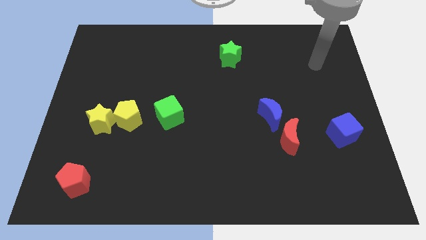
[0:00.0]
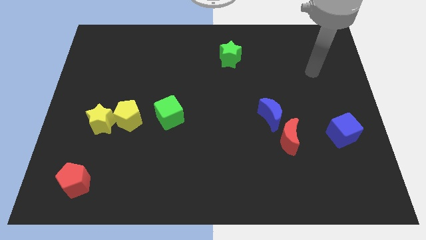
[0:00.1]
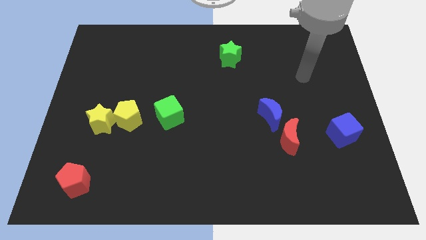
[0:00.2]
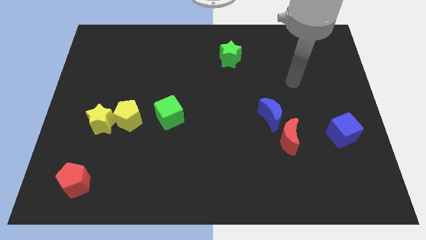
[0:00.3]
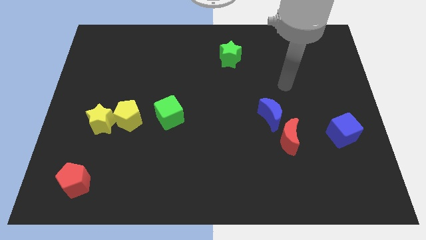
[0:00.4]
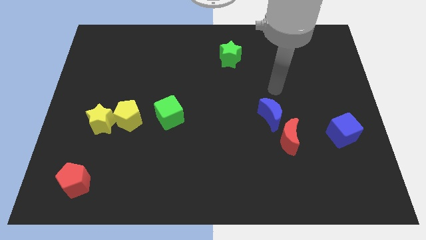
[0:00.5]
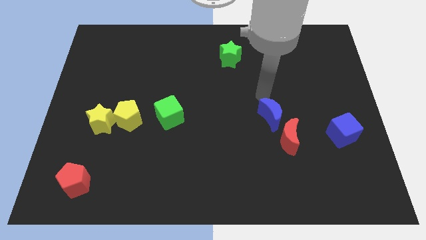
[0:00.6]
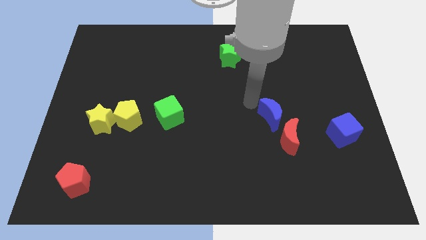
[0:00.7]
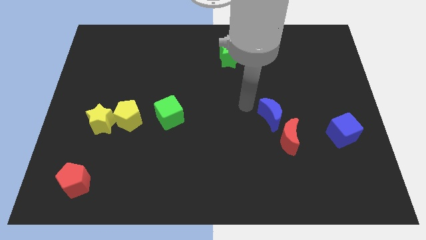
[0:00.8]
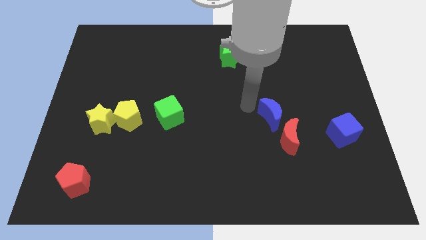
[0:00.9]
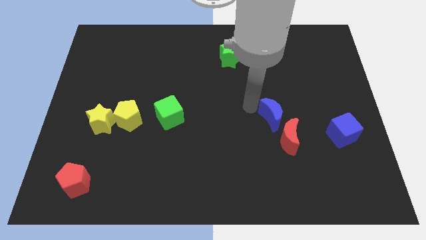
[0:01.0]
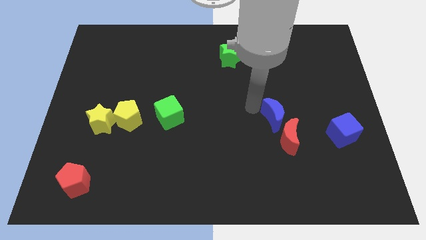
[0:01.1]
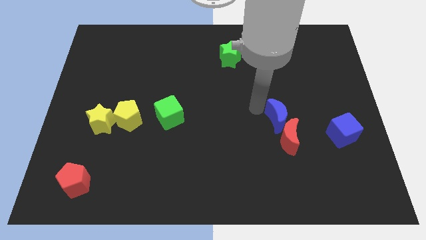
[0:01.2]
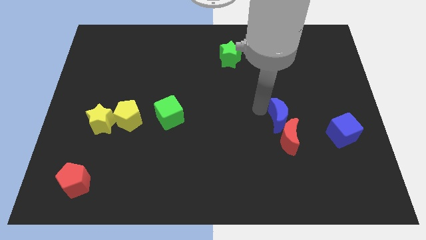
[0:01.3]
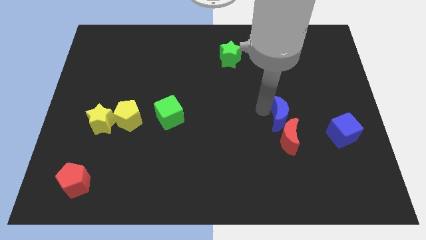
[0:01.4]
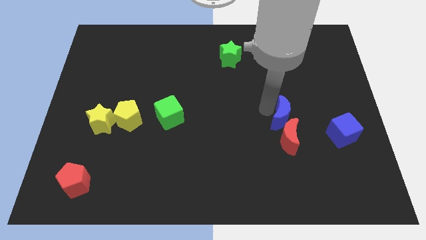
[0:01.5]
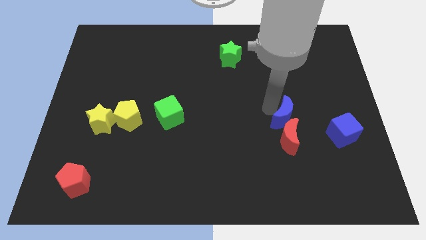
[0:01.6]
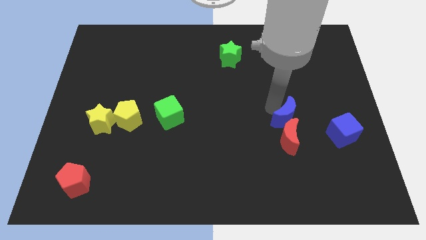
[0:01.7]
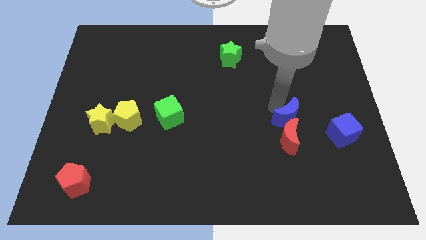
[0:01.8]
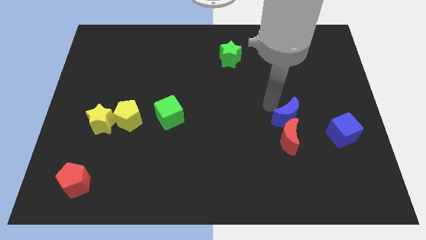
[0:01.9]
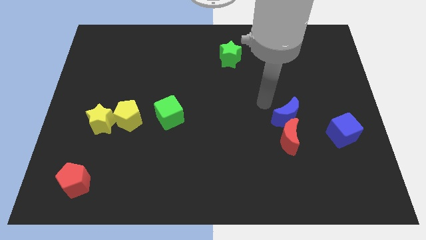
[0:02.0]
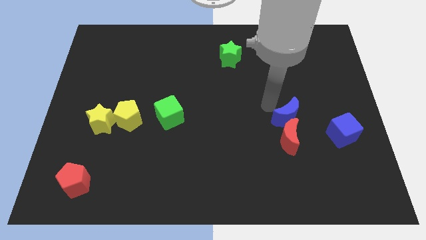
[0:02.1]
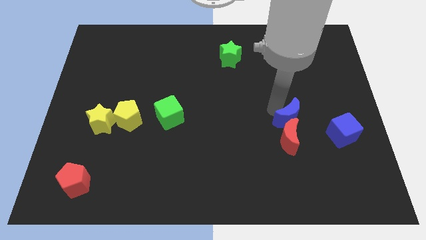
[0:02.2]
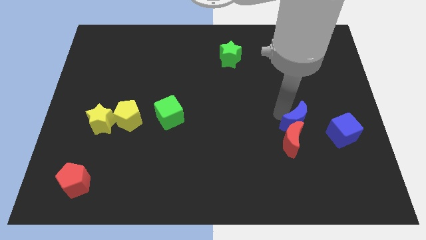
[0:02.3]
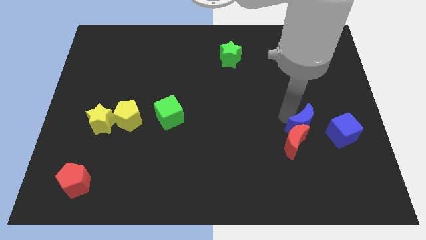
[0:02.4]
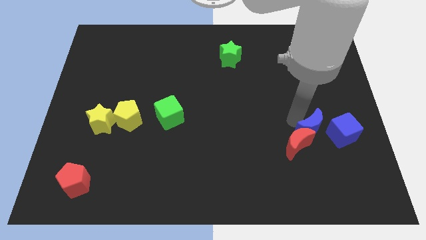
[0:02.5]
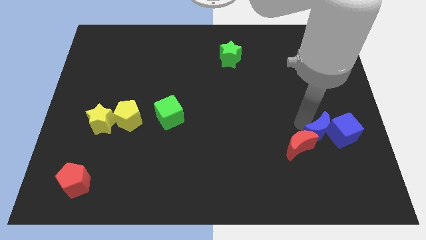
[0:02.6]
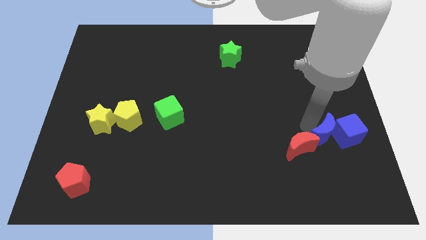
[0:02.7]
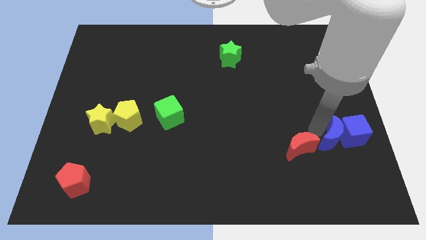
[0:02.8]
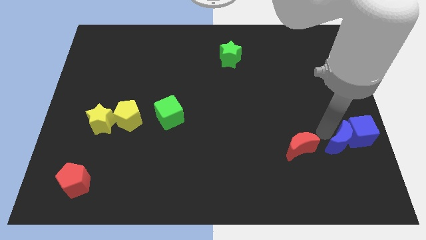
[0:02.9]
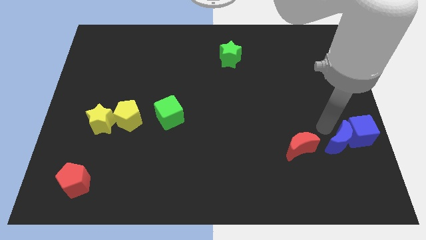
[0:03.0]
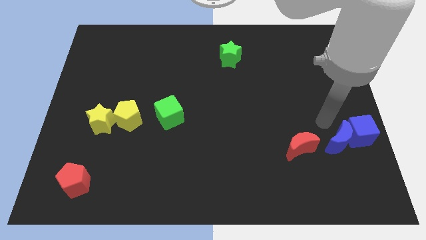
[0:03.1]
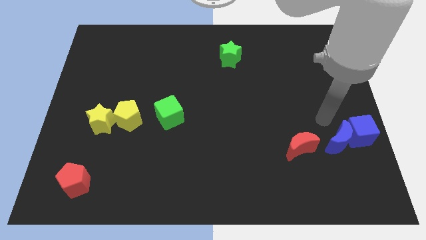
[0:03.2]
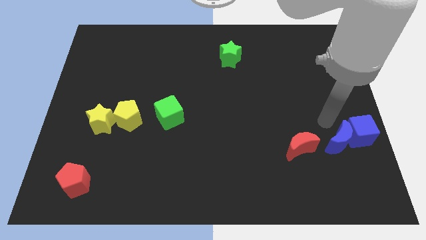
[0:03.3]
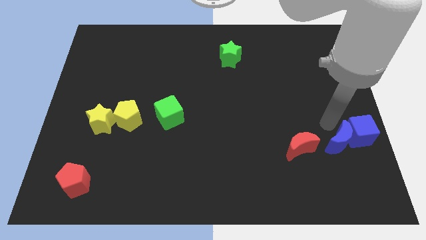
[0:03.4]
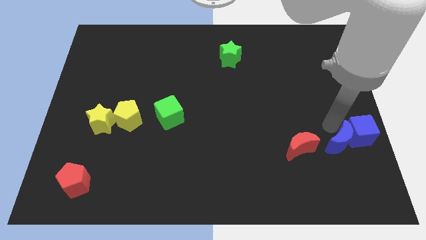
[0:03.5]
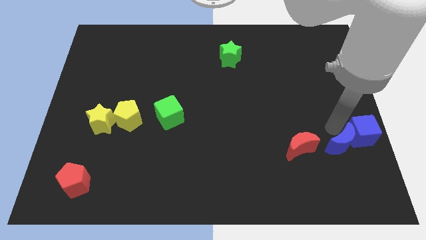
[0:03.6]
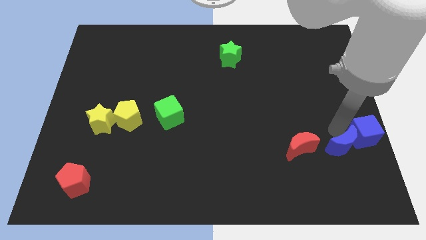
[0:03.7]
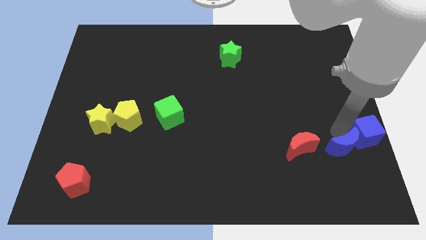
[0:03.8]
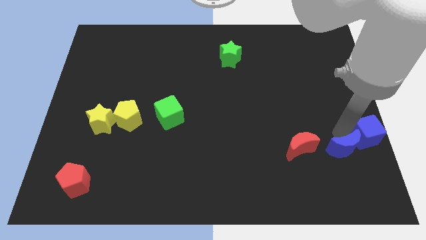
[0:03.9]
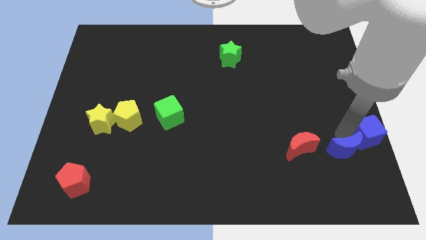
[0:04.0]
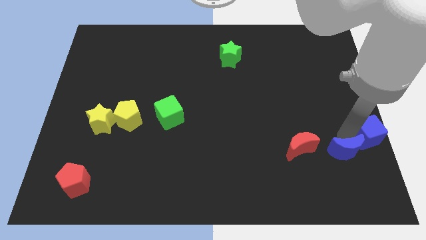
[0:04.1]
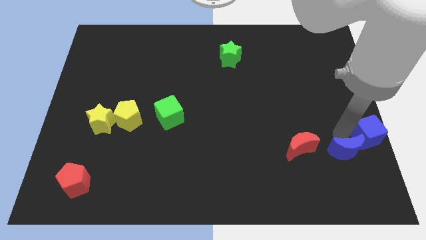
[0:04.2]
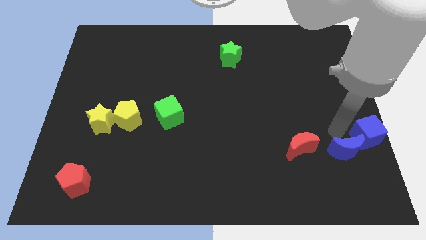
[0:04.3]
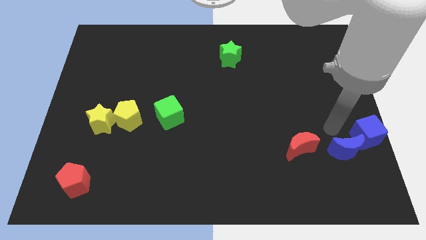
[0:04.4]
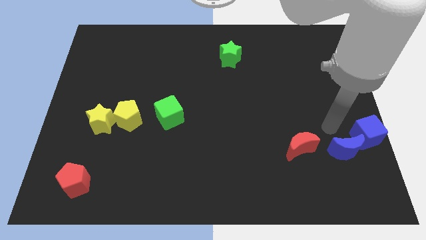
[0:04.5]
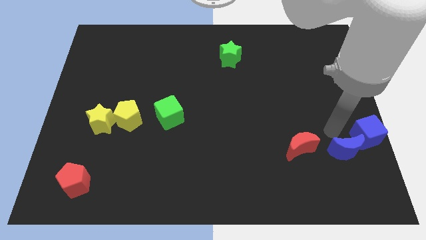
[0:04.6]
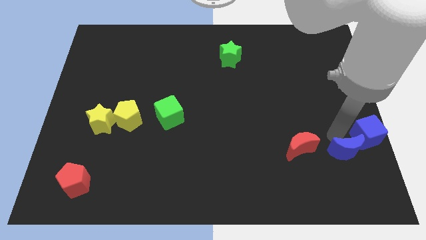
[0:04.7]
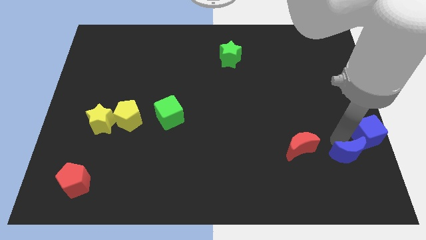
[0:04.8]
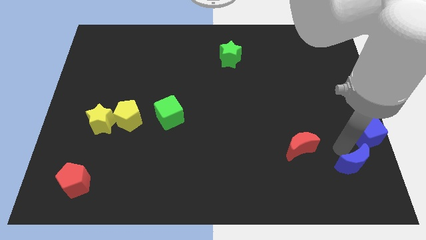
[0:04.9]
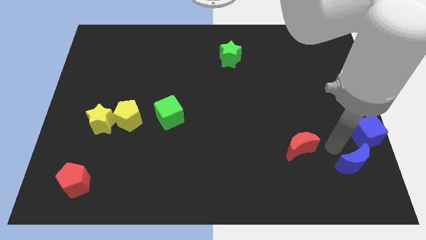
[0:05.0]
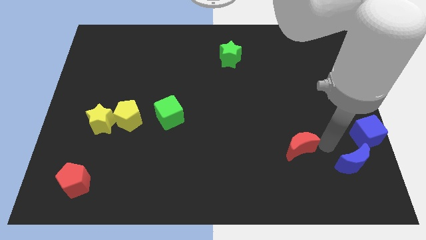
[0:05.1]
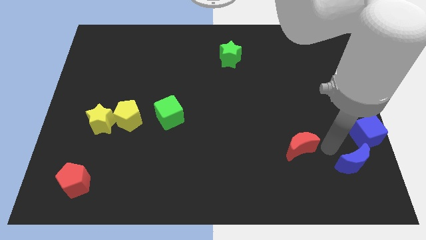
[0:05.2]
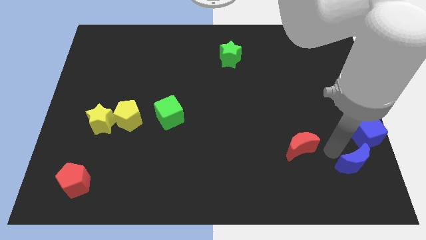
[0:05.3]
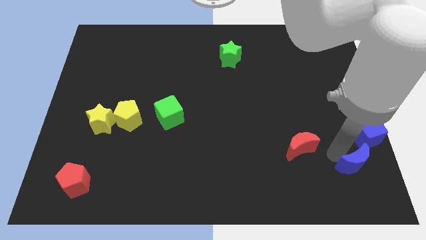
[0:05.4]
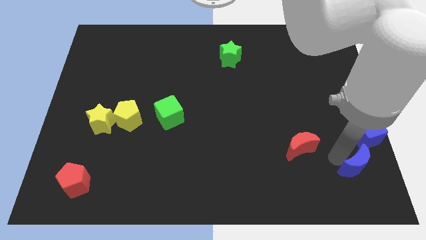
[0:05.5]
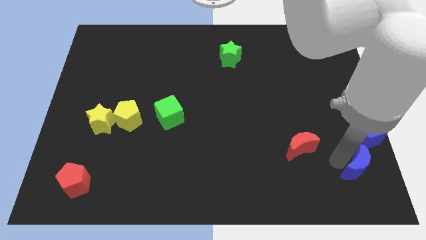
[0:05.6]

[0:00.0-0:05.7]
move the blue moon to the bottom right

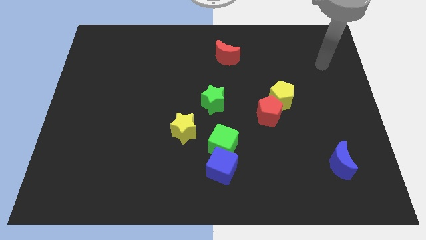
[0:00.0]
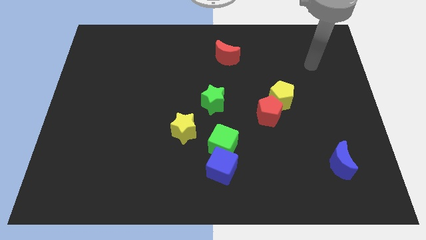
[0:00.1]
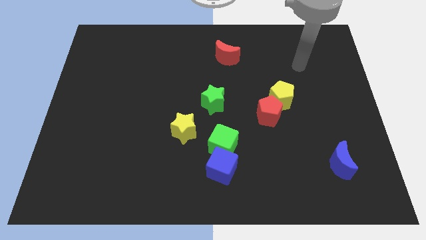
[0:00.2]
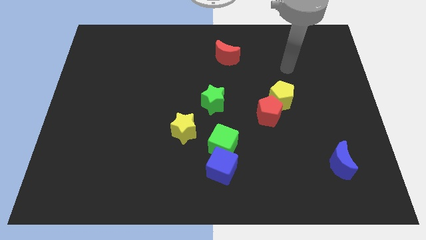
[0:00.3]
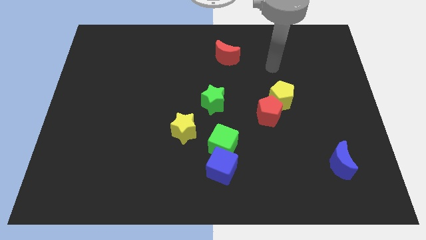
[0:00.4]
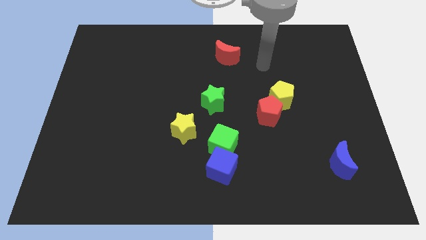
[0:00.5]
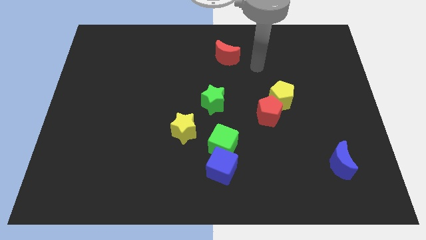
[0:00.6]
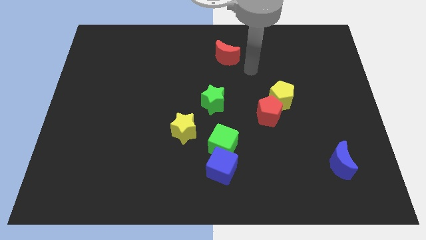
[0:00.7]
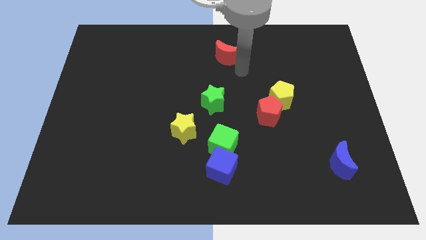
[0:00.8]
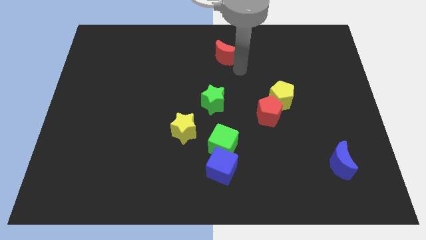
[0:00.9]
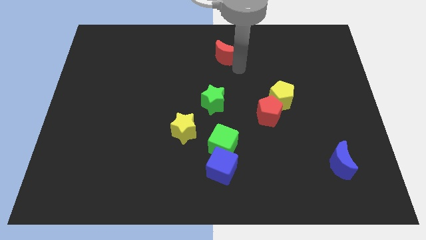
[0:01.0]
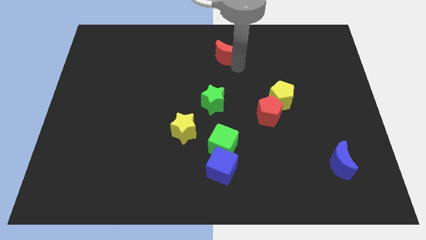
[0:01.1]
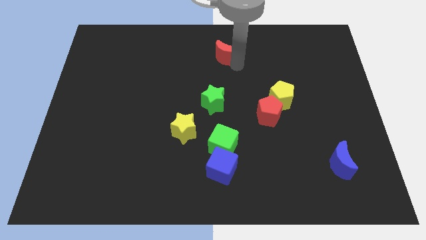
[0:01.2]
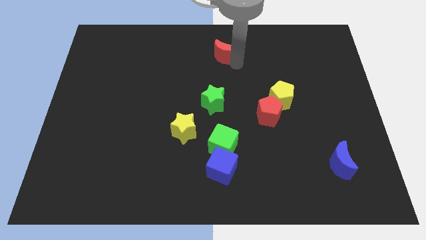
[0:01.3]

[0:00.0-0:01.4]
move the red moon to the towards your base
